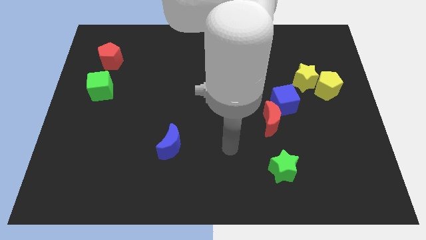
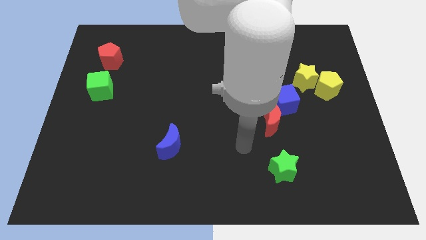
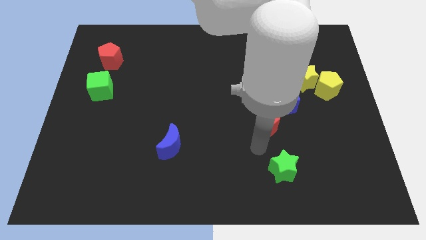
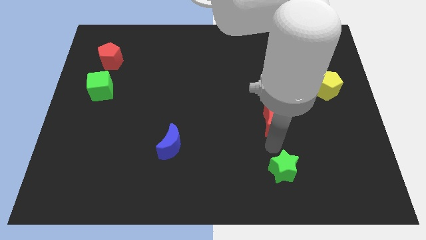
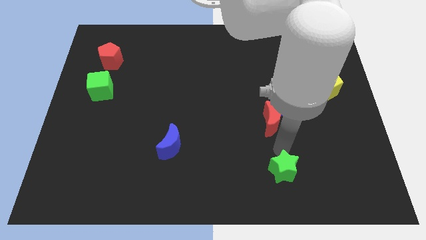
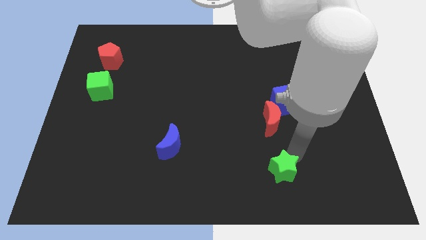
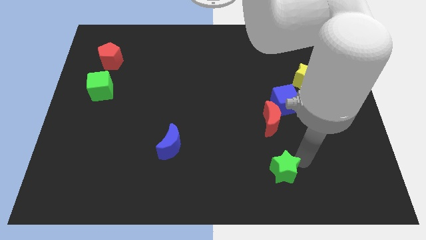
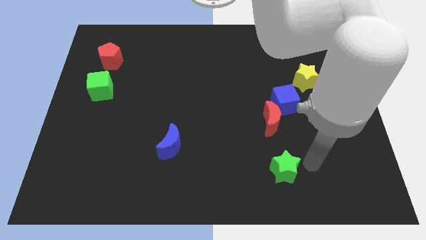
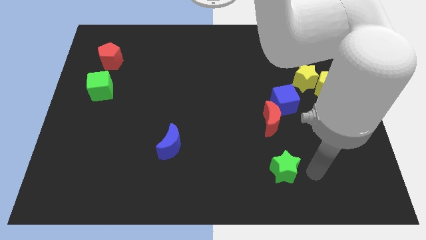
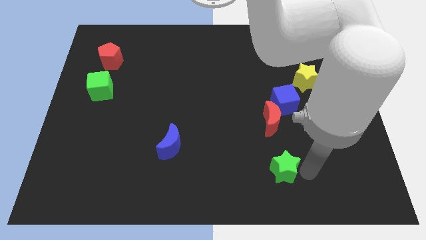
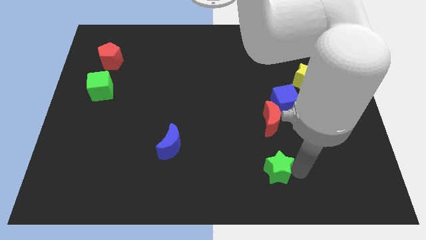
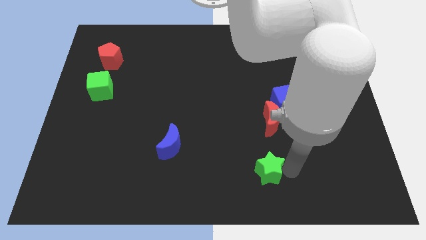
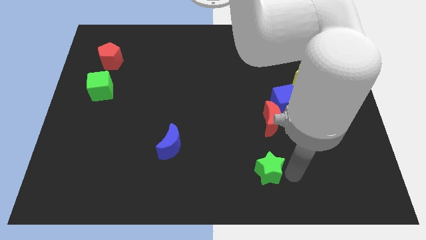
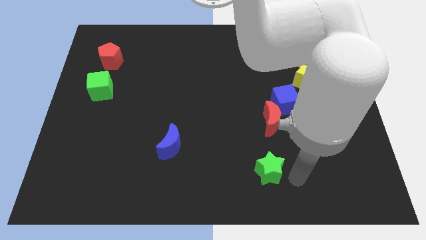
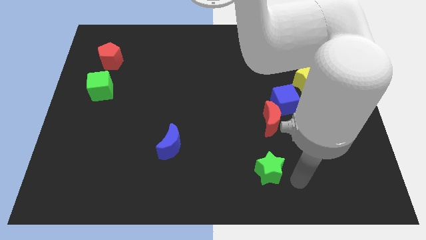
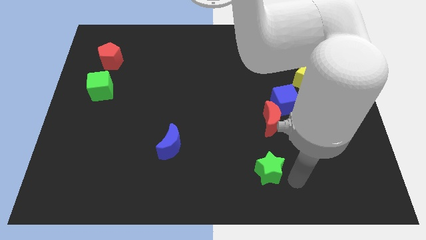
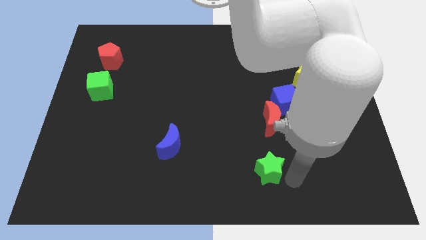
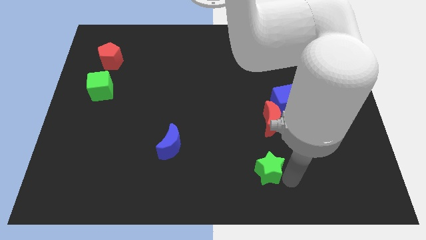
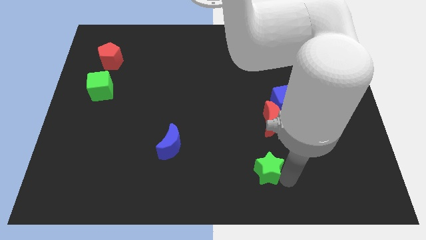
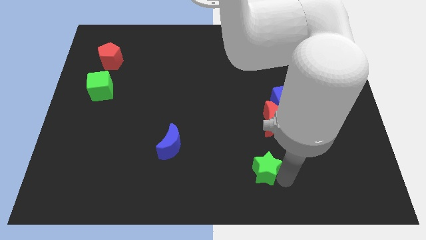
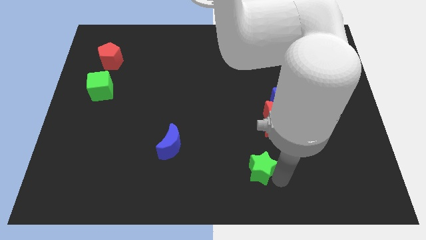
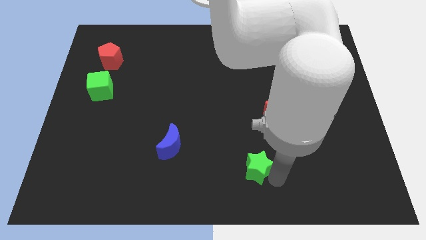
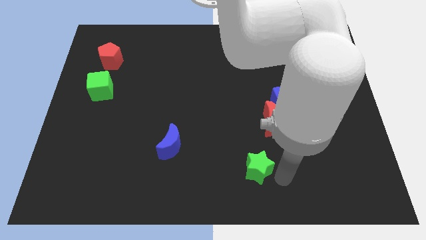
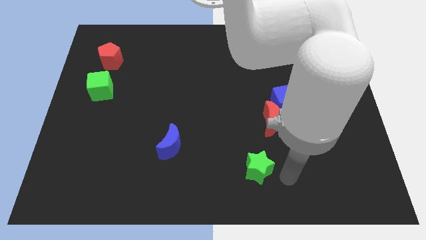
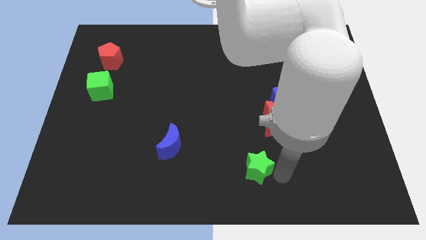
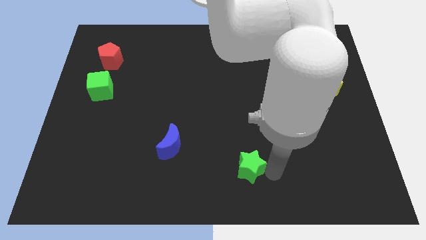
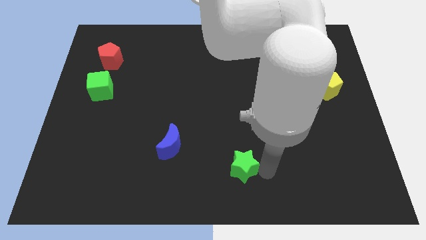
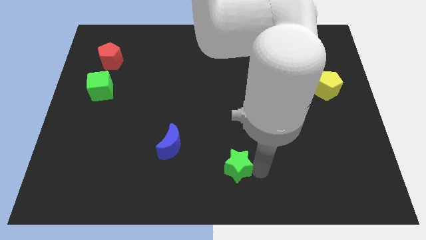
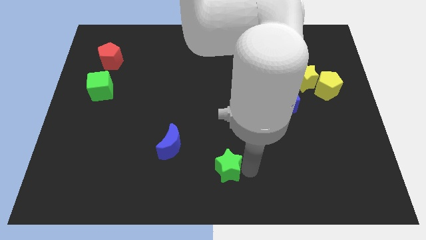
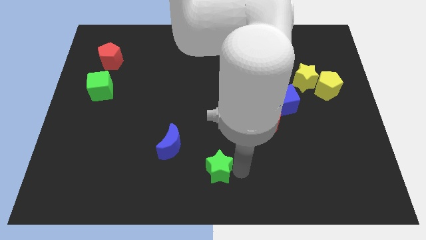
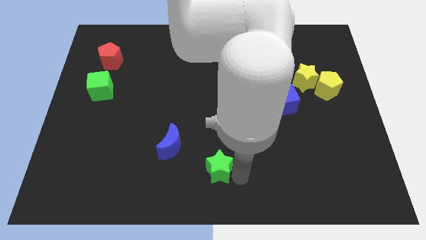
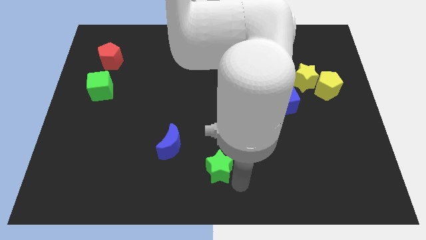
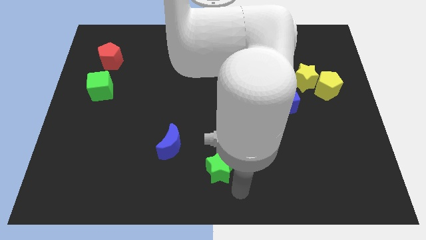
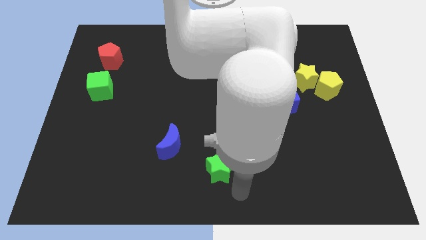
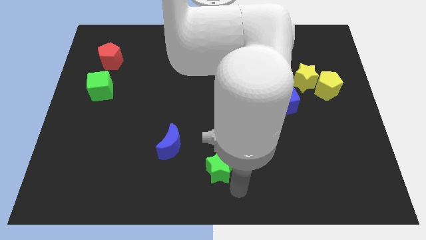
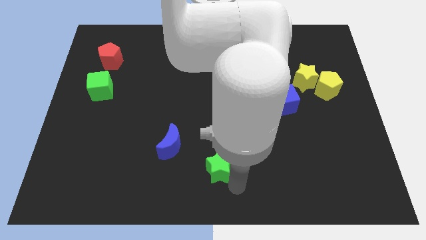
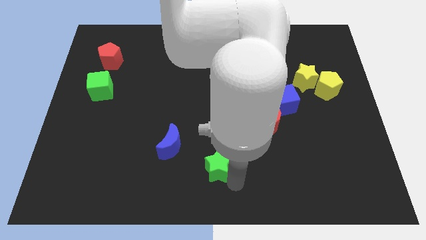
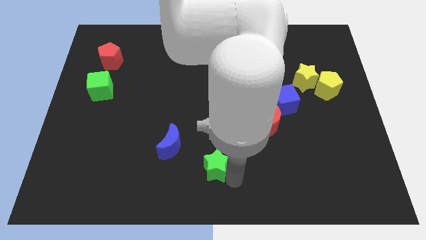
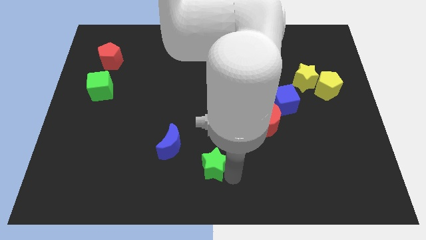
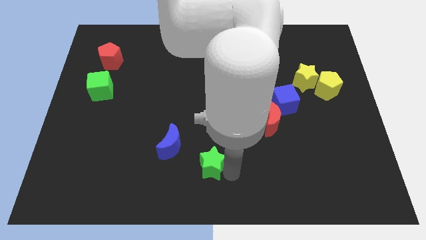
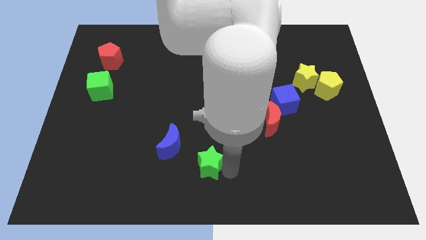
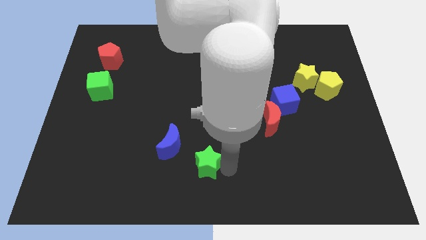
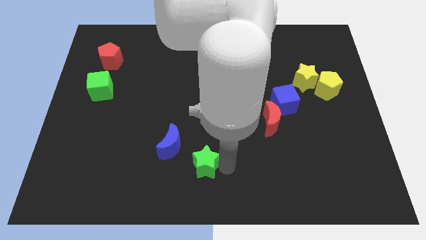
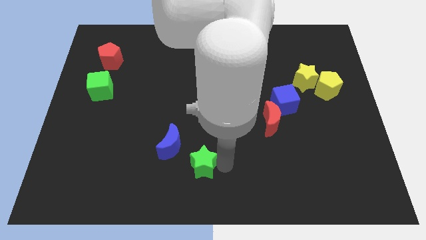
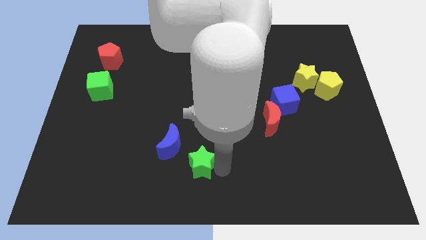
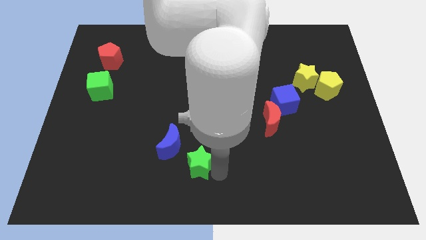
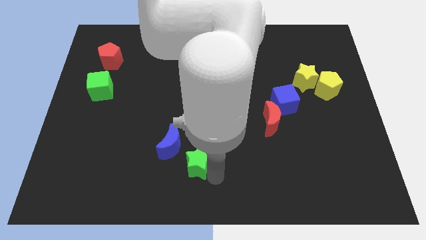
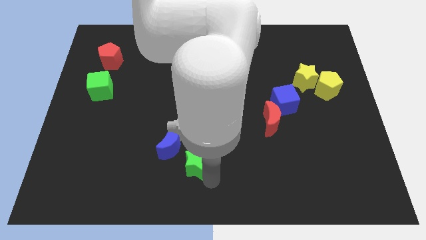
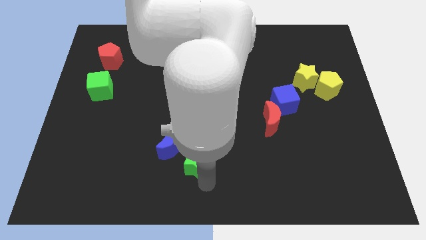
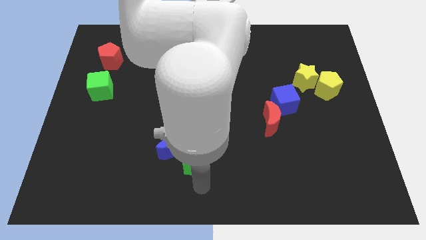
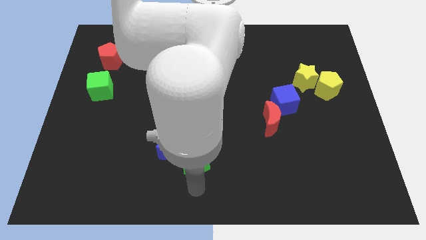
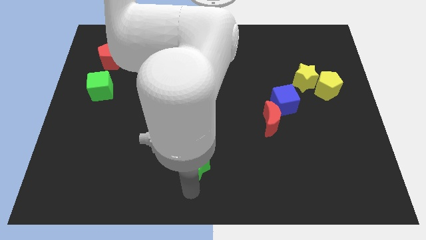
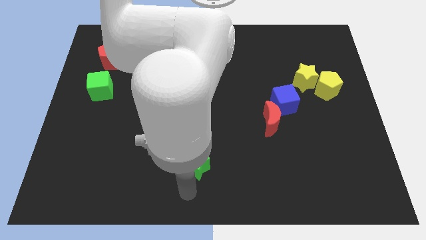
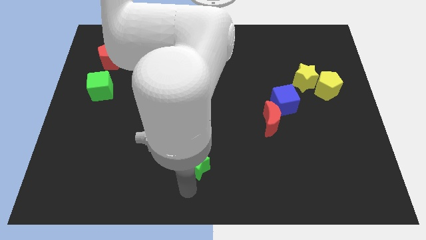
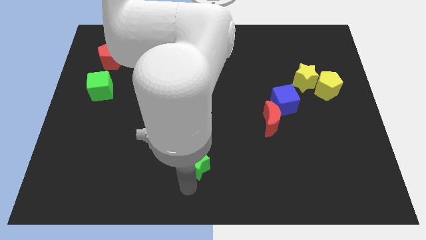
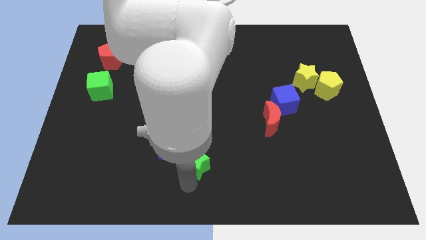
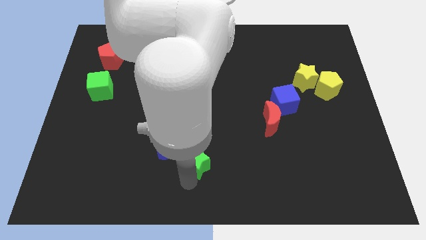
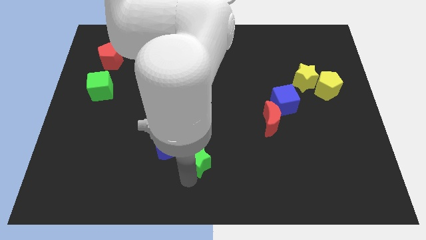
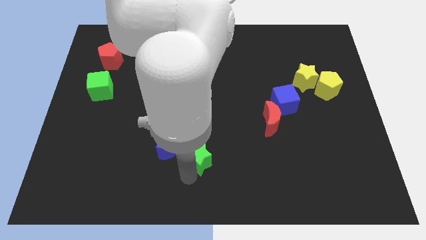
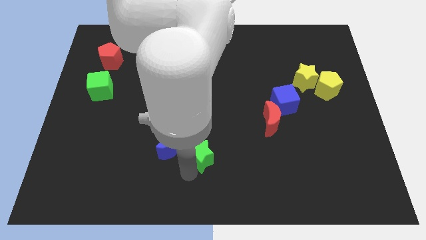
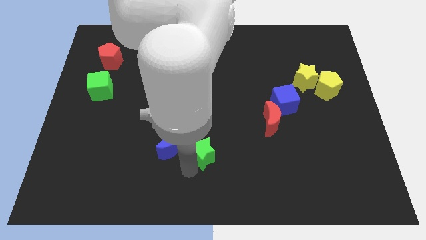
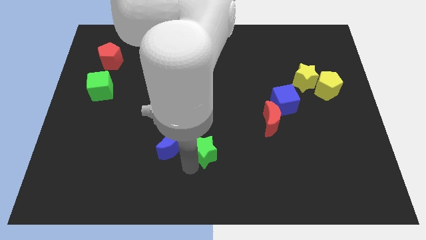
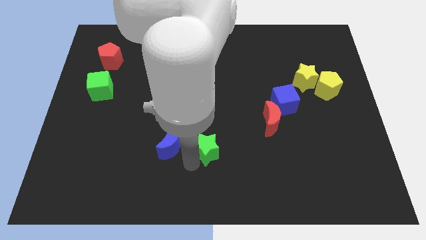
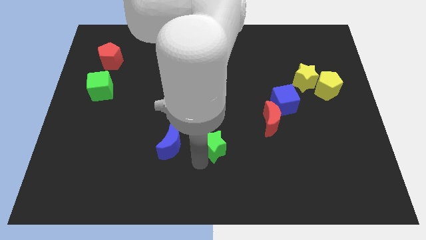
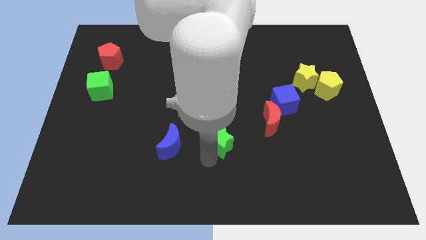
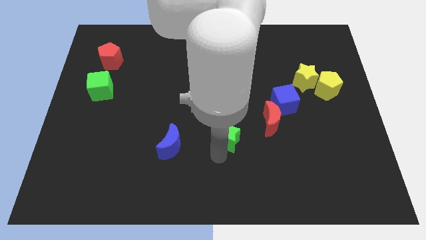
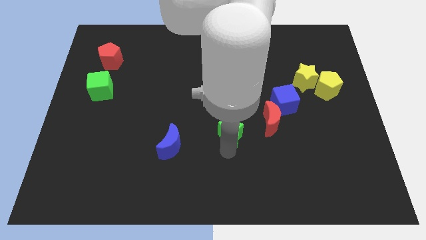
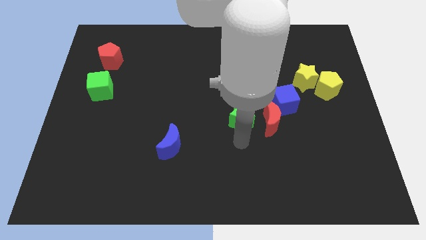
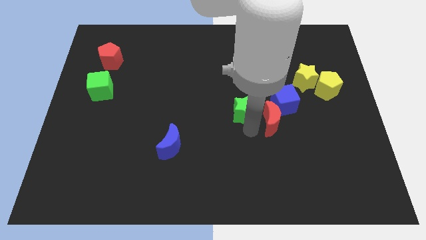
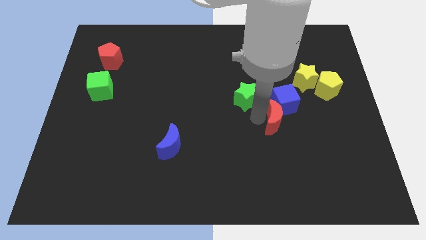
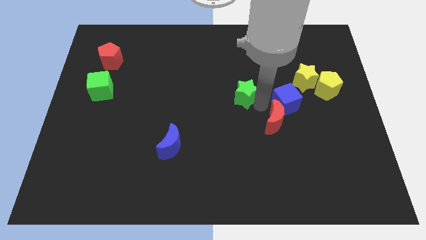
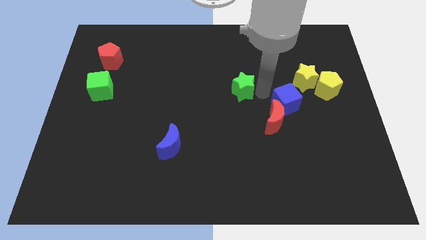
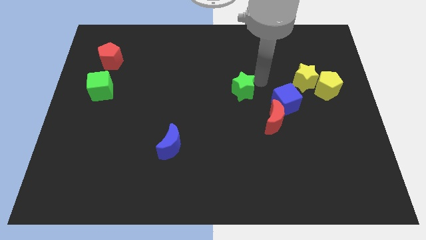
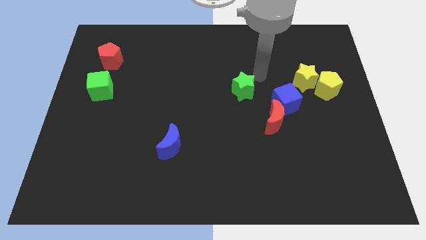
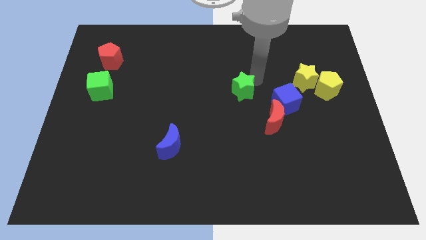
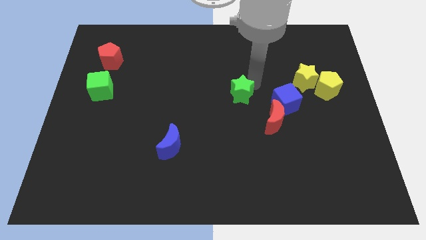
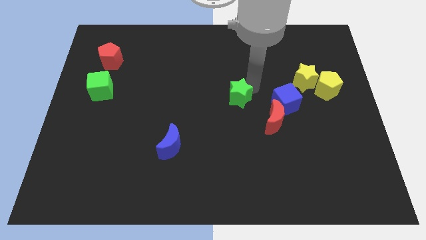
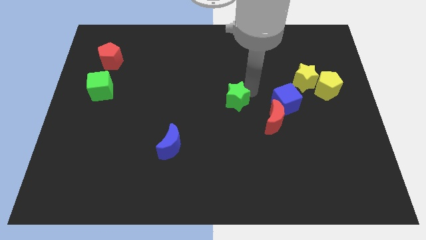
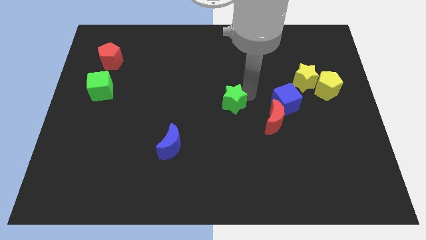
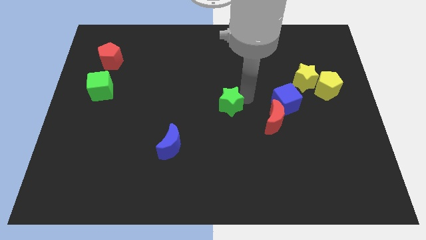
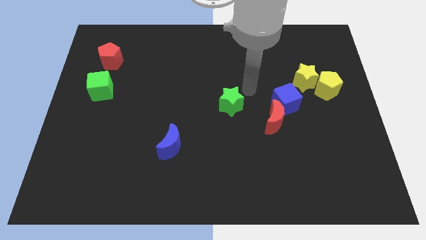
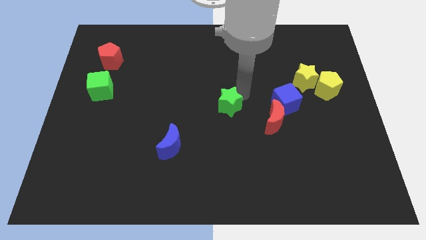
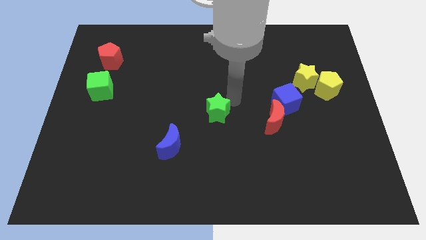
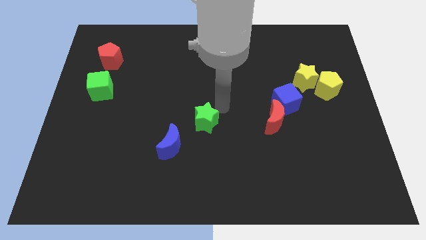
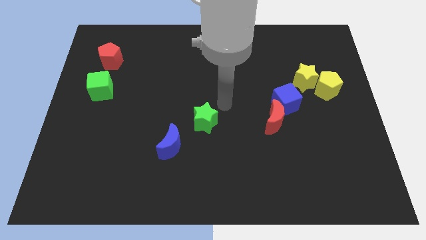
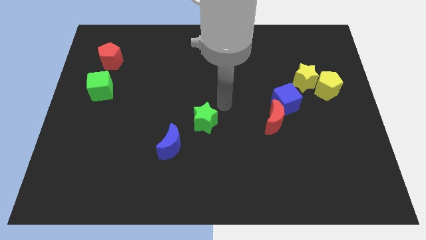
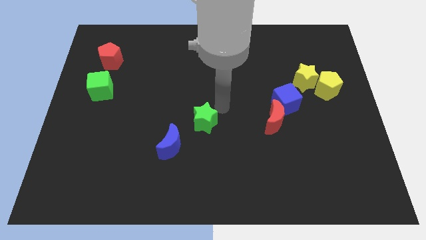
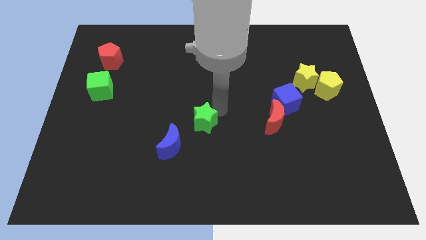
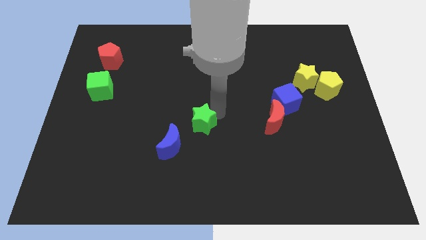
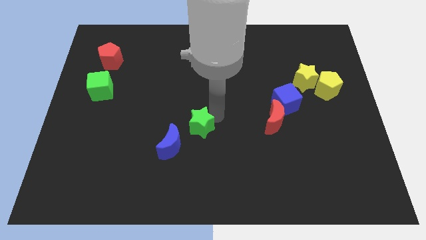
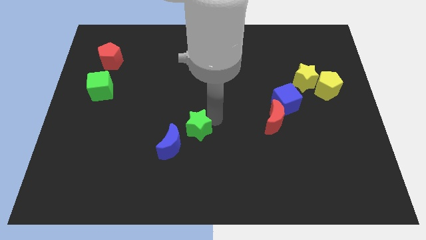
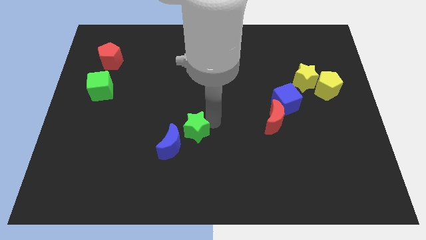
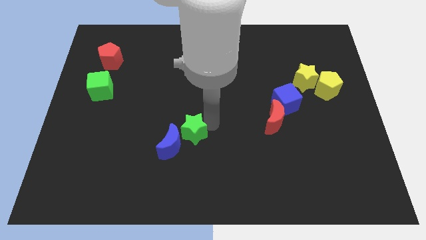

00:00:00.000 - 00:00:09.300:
move the green star next to the blue moon
